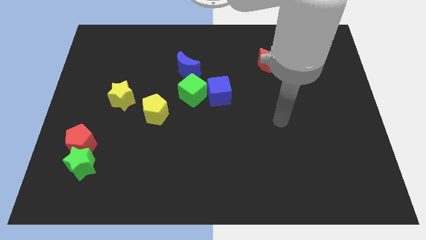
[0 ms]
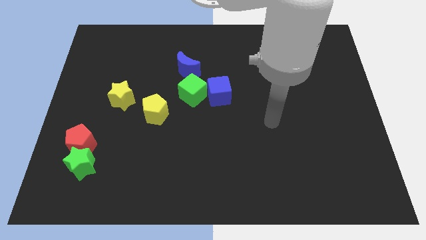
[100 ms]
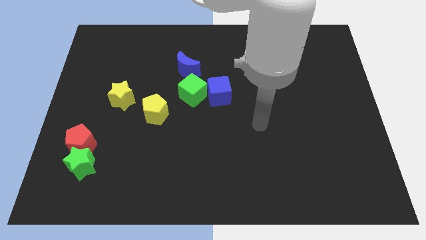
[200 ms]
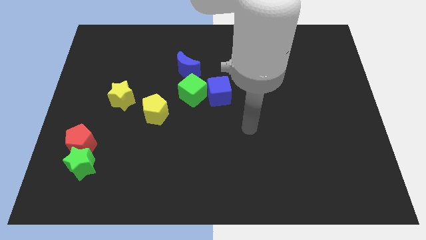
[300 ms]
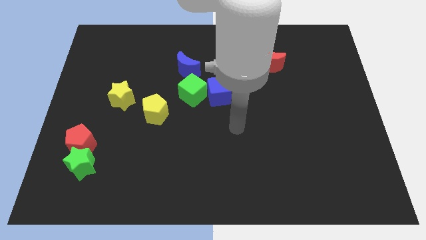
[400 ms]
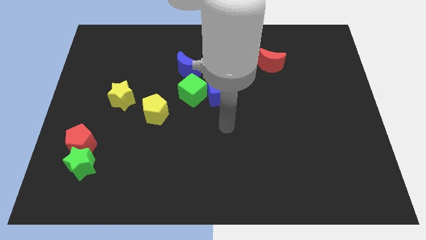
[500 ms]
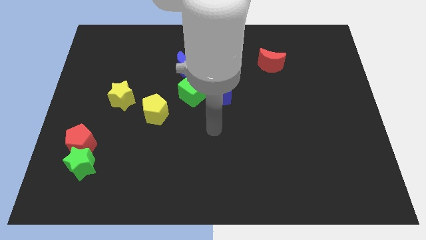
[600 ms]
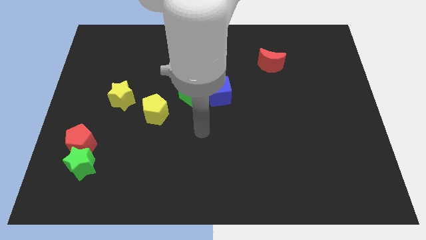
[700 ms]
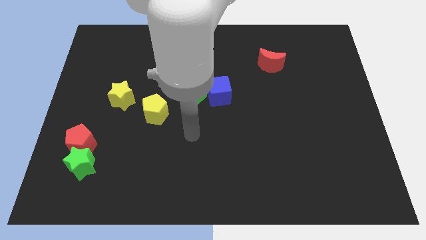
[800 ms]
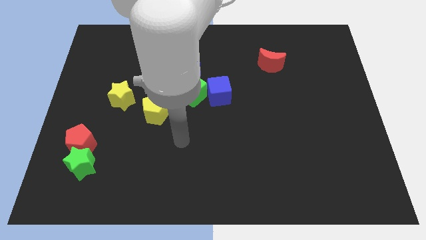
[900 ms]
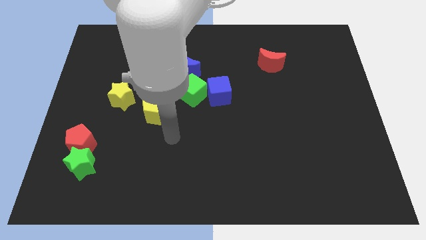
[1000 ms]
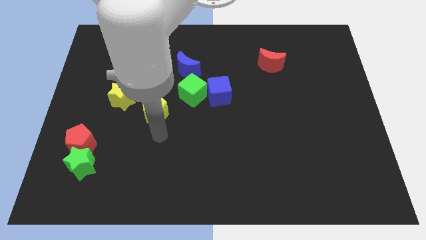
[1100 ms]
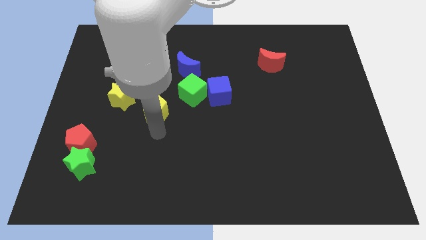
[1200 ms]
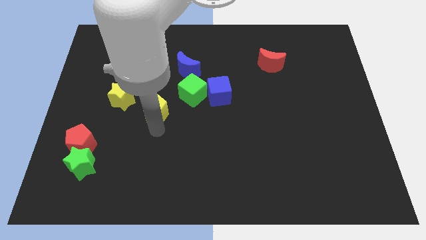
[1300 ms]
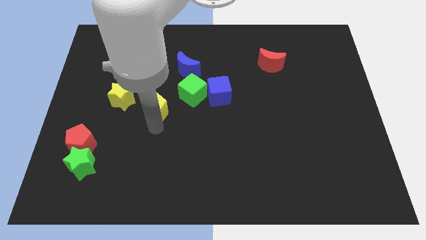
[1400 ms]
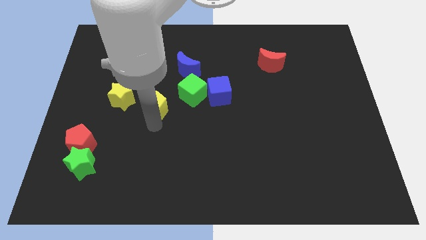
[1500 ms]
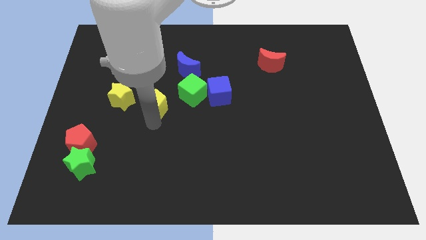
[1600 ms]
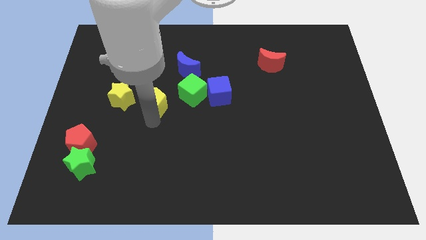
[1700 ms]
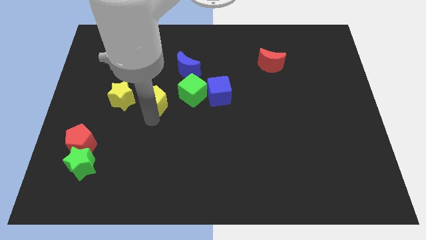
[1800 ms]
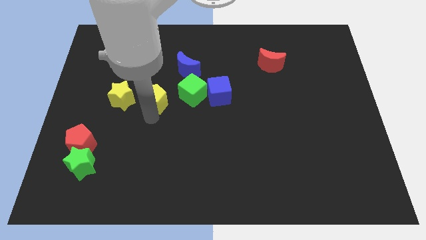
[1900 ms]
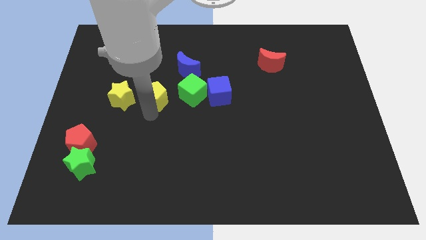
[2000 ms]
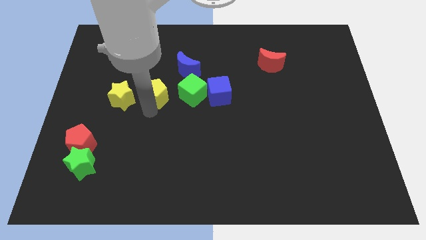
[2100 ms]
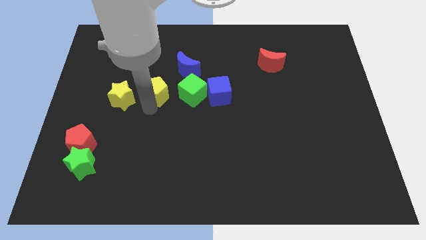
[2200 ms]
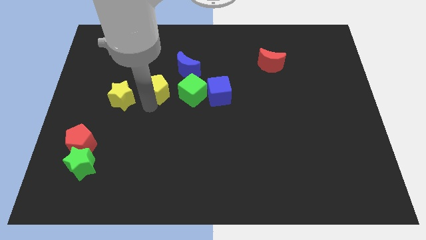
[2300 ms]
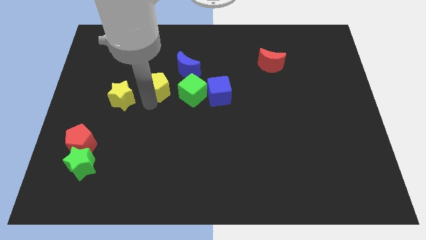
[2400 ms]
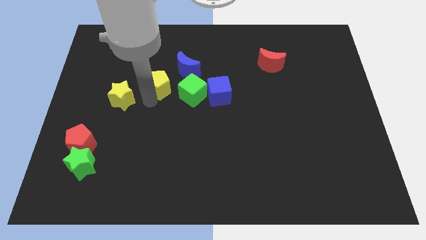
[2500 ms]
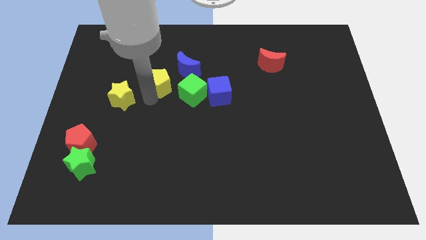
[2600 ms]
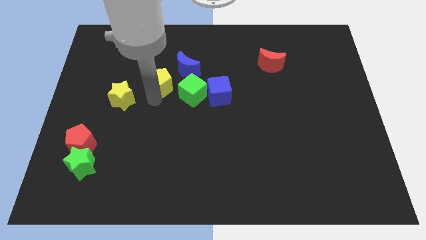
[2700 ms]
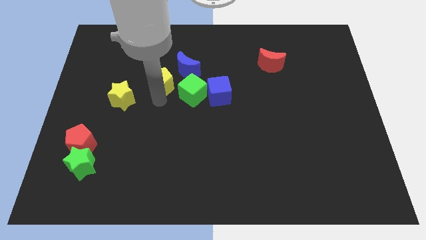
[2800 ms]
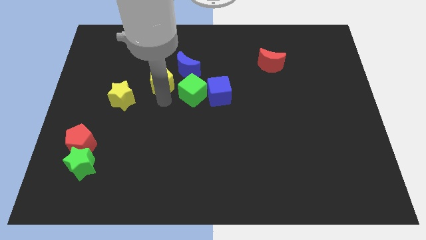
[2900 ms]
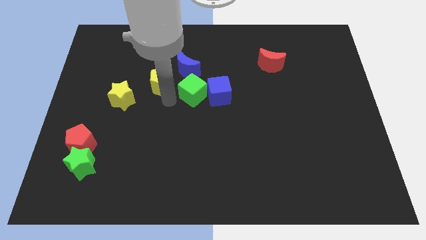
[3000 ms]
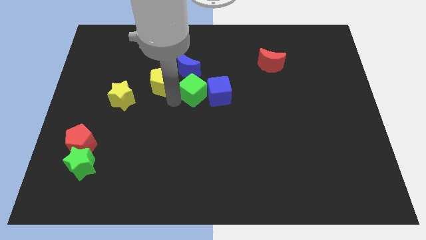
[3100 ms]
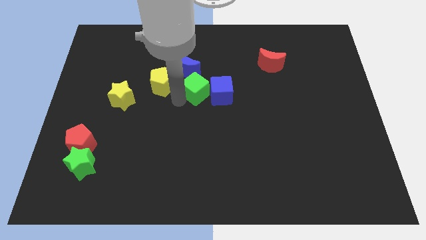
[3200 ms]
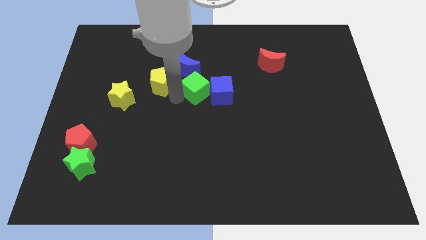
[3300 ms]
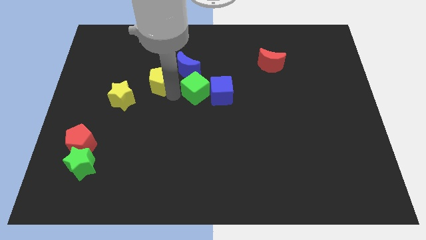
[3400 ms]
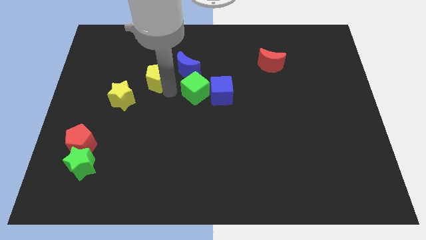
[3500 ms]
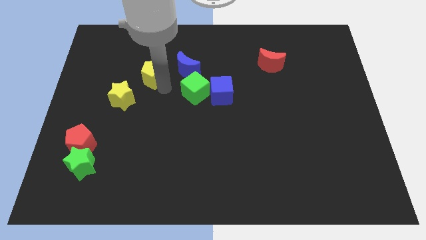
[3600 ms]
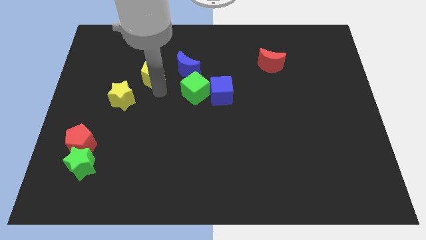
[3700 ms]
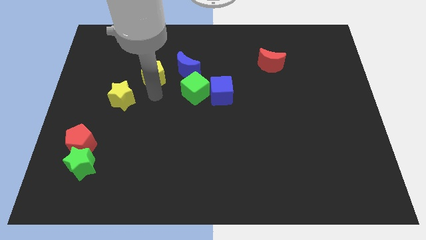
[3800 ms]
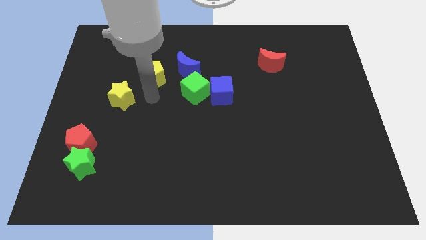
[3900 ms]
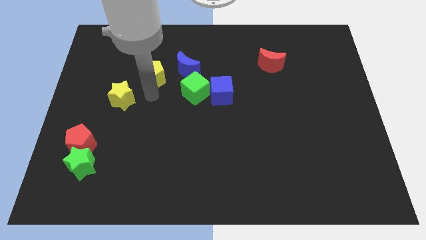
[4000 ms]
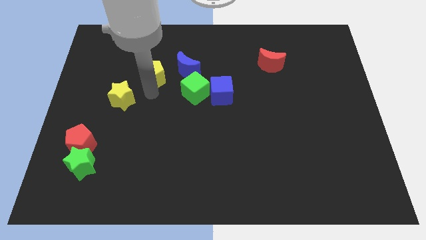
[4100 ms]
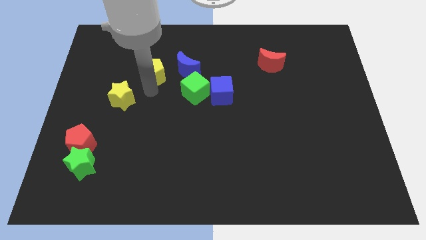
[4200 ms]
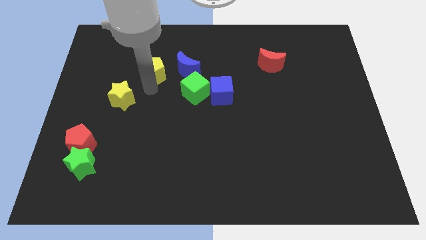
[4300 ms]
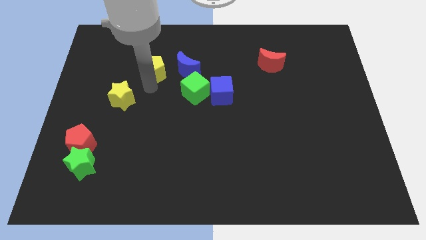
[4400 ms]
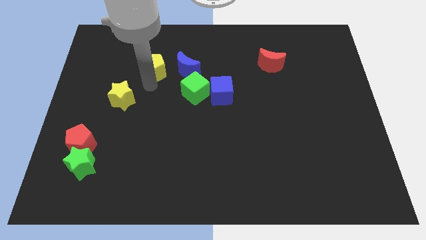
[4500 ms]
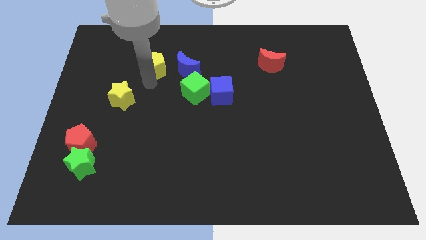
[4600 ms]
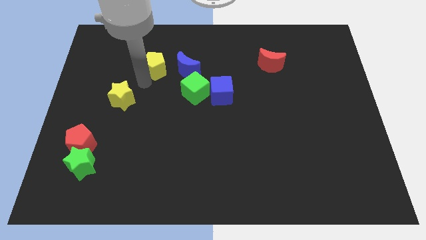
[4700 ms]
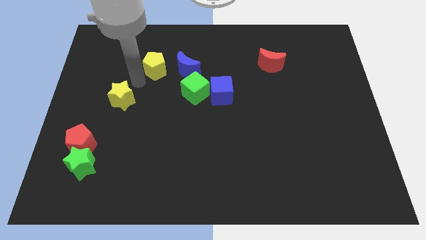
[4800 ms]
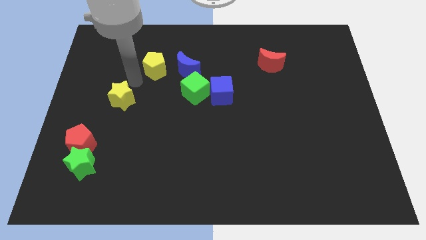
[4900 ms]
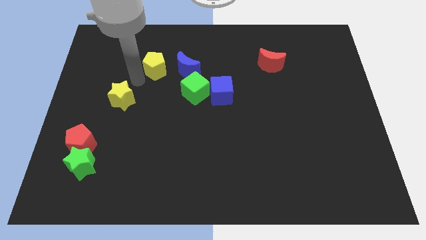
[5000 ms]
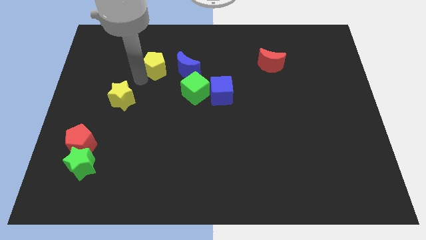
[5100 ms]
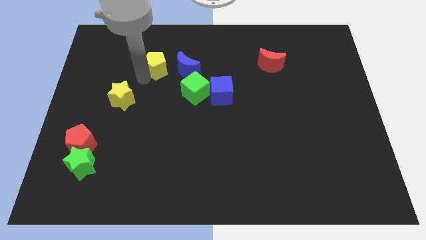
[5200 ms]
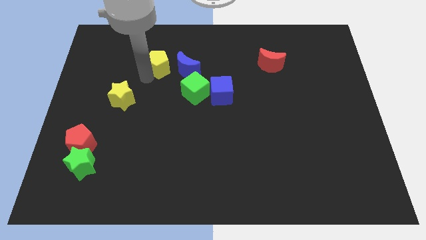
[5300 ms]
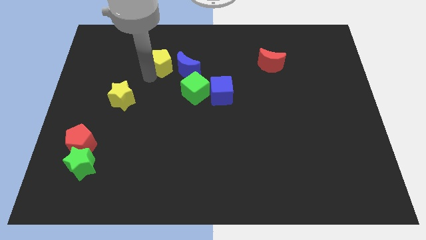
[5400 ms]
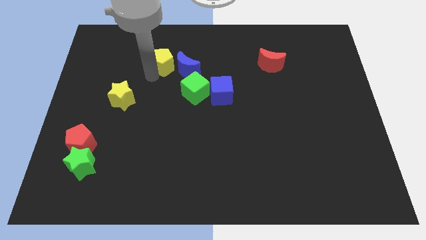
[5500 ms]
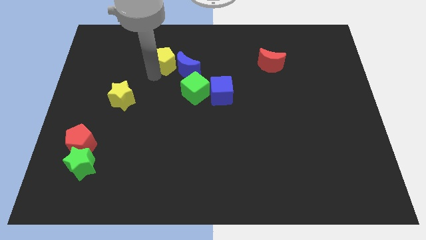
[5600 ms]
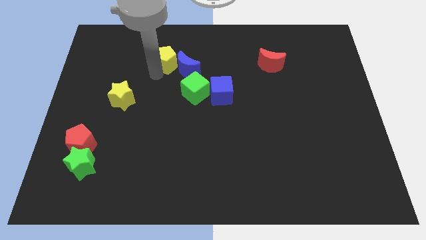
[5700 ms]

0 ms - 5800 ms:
move the yellow pentagon somewhat up and then to the right

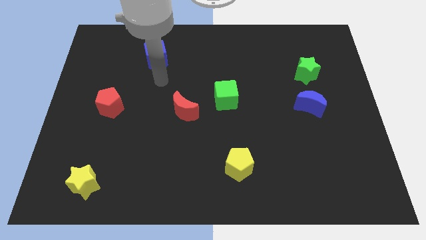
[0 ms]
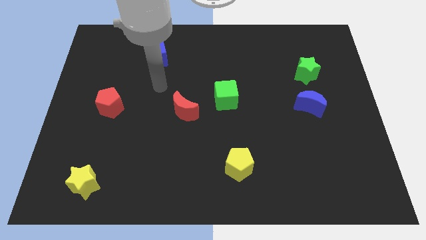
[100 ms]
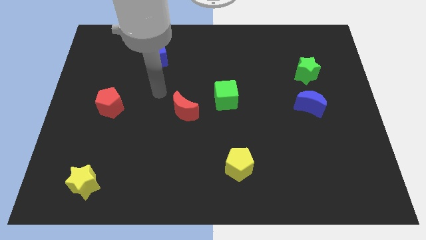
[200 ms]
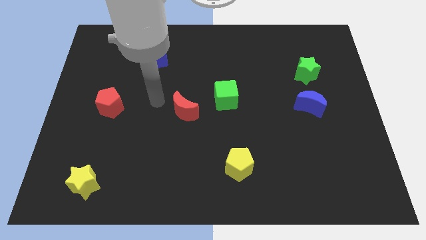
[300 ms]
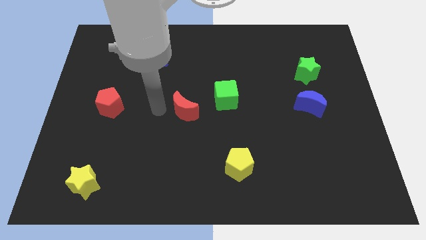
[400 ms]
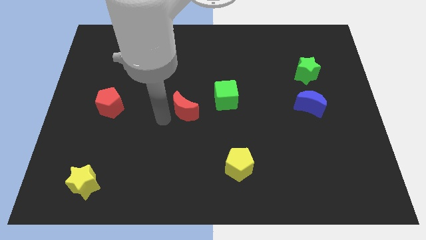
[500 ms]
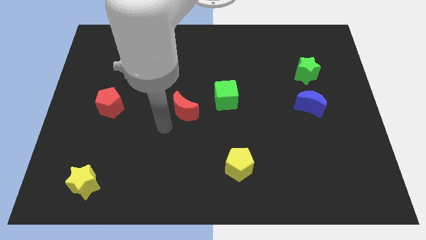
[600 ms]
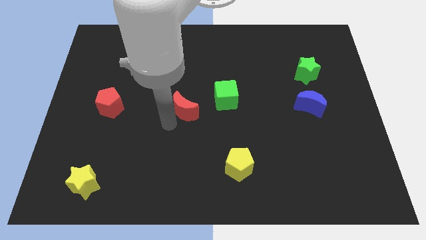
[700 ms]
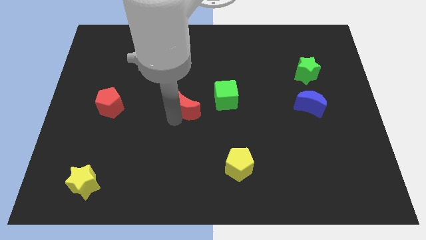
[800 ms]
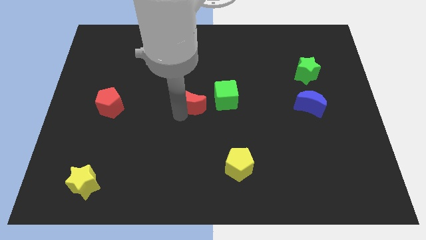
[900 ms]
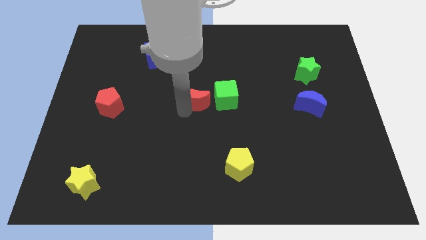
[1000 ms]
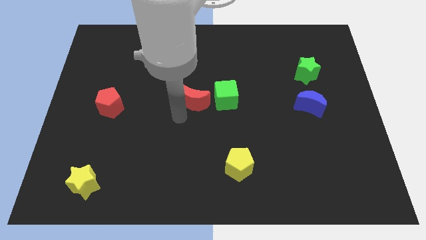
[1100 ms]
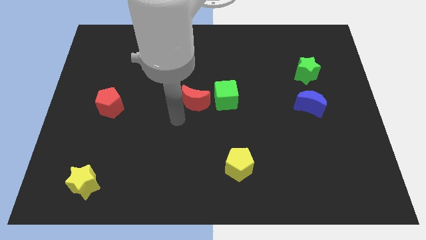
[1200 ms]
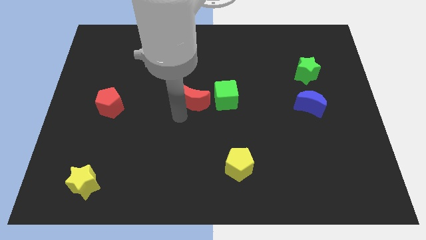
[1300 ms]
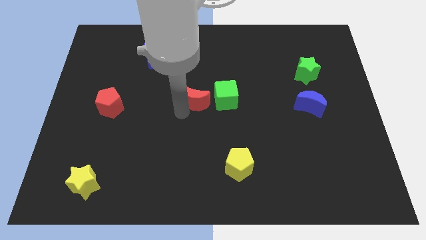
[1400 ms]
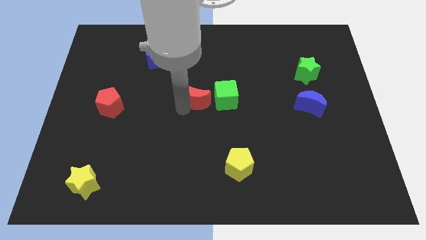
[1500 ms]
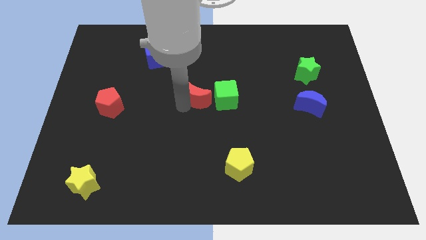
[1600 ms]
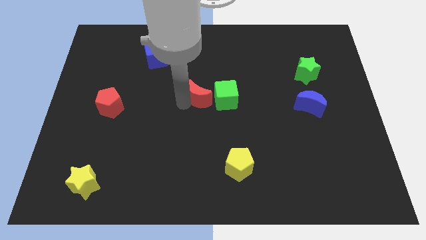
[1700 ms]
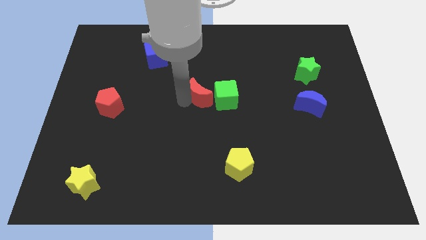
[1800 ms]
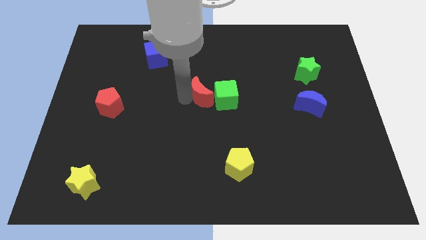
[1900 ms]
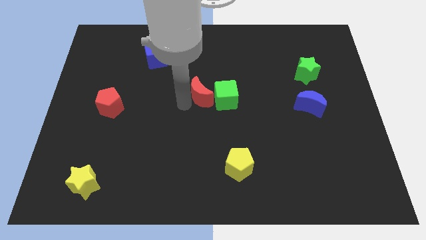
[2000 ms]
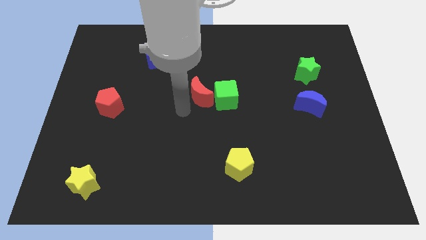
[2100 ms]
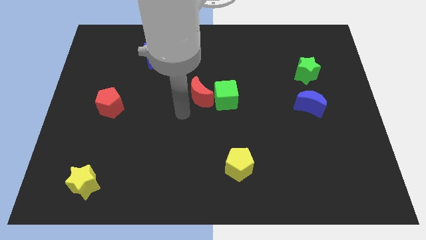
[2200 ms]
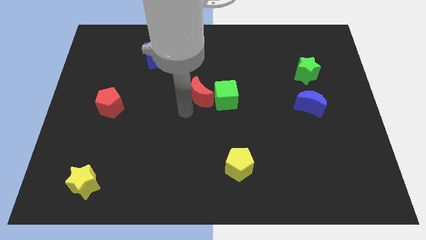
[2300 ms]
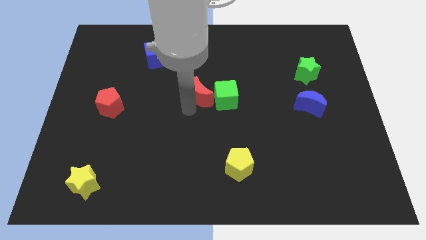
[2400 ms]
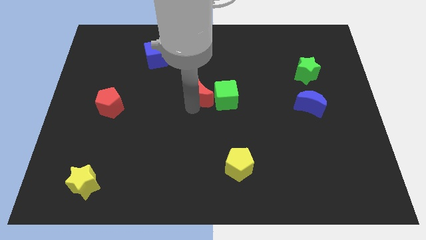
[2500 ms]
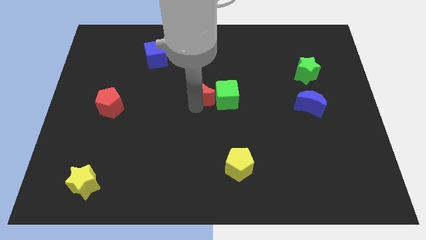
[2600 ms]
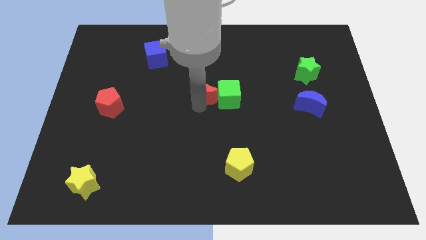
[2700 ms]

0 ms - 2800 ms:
slide the red moon a little up and to the right diagonally
